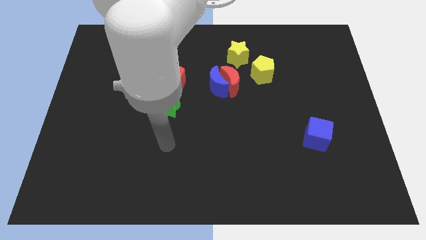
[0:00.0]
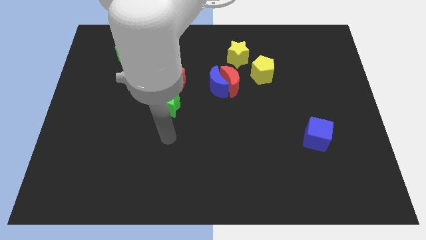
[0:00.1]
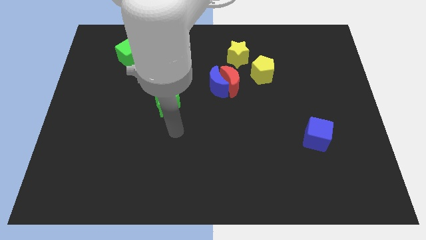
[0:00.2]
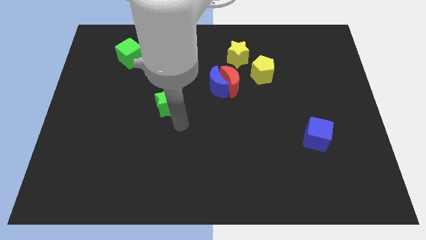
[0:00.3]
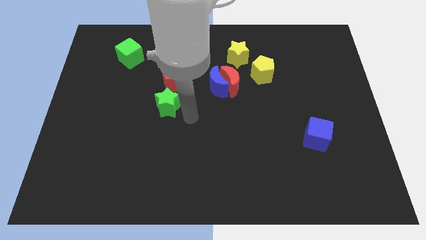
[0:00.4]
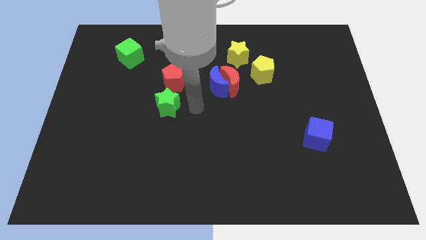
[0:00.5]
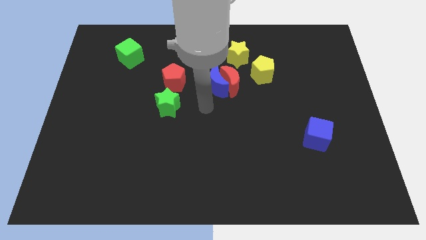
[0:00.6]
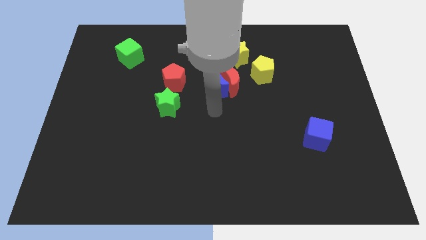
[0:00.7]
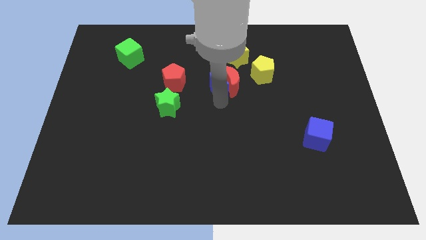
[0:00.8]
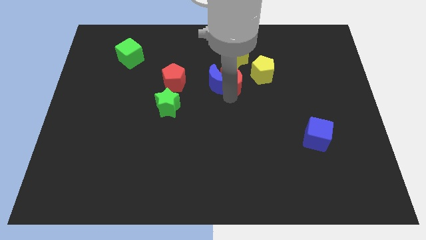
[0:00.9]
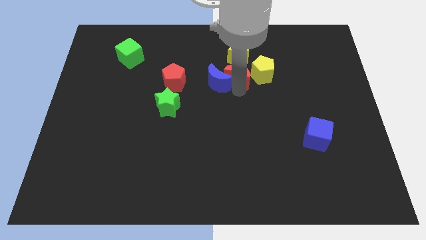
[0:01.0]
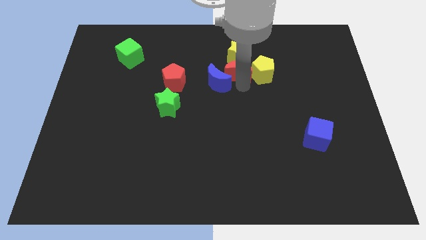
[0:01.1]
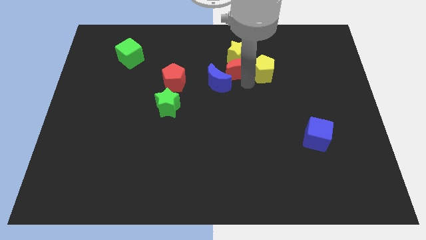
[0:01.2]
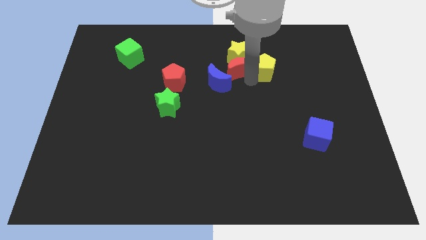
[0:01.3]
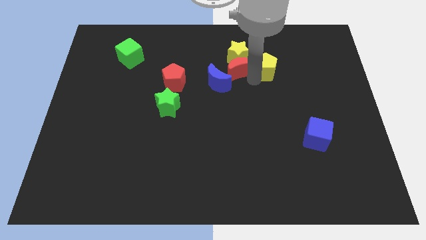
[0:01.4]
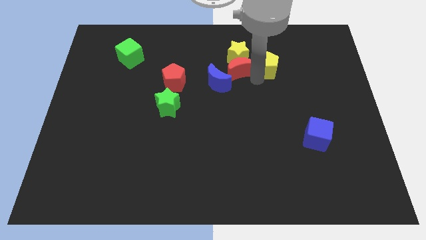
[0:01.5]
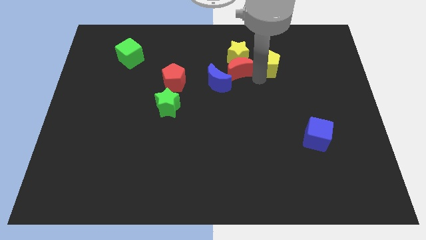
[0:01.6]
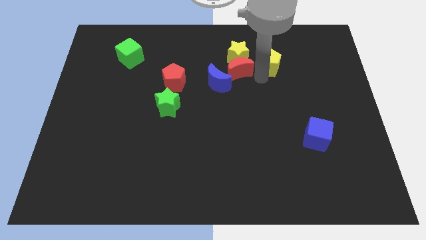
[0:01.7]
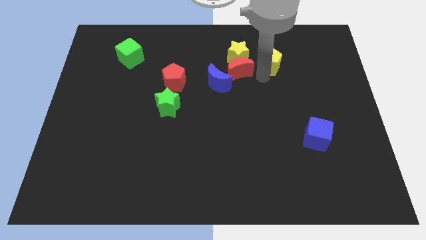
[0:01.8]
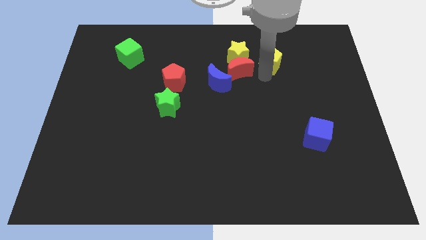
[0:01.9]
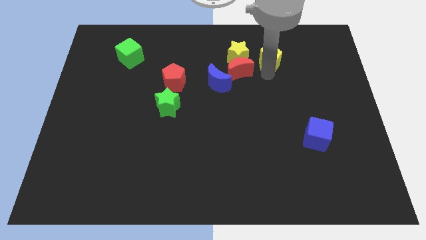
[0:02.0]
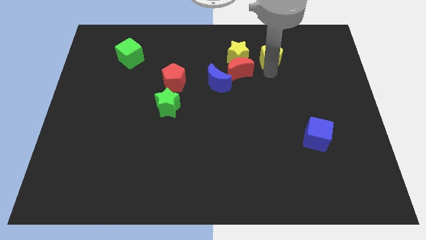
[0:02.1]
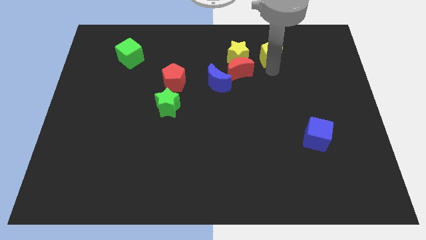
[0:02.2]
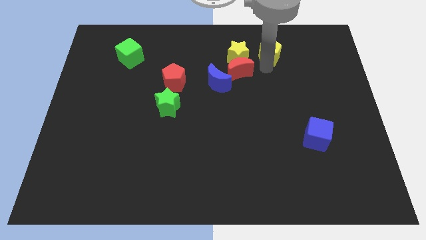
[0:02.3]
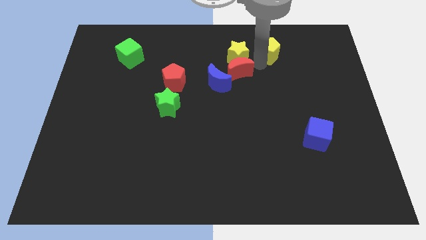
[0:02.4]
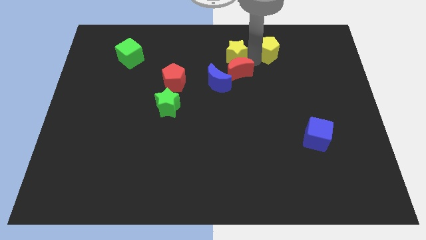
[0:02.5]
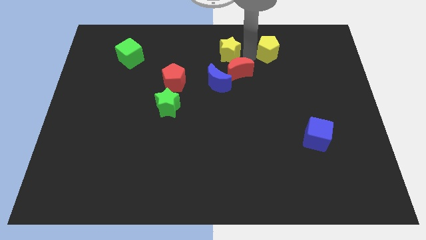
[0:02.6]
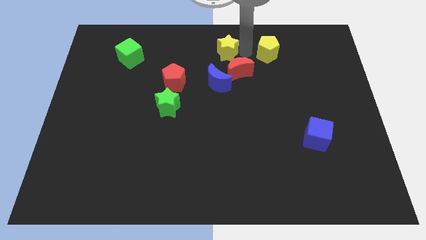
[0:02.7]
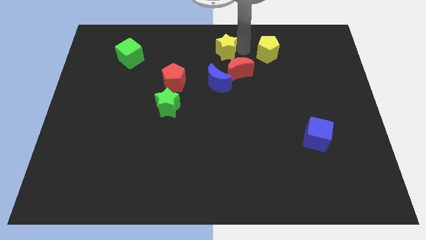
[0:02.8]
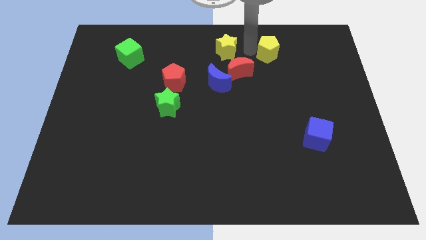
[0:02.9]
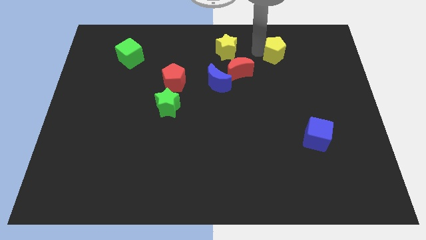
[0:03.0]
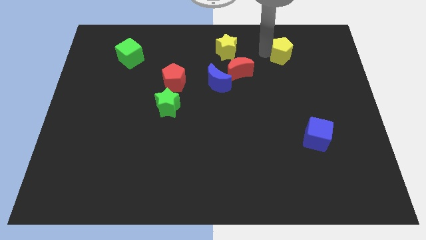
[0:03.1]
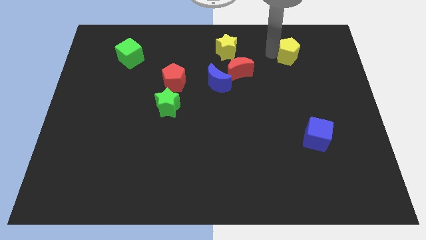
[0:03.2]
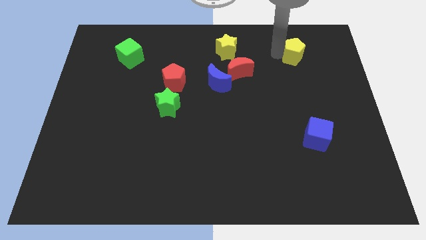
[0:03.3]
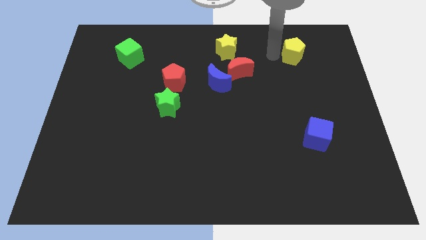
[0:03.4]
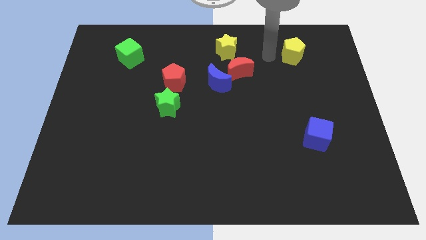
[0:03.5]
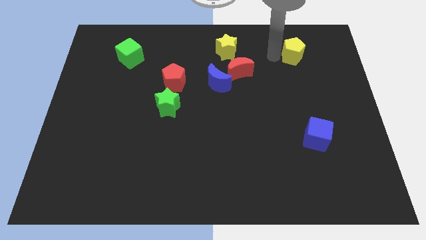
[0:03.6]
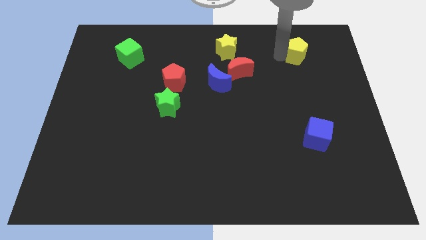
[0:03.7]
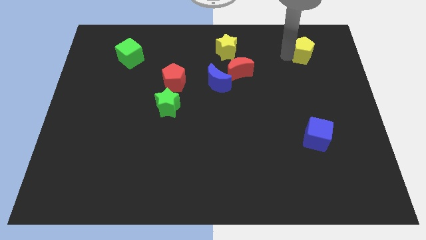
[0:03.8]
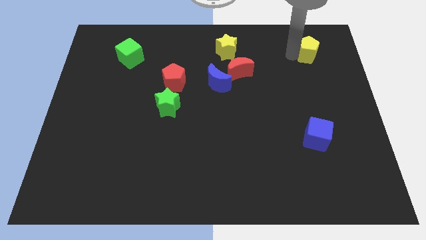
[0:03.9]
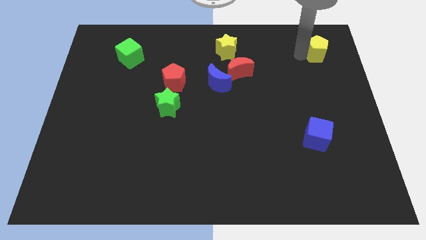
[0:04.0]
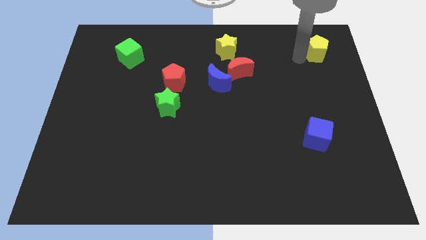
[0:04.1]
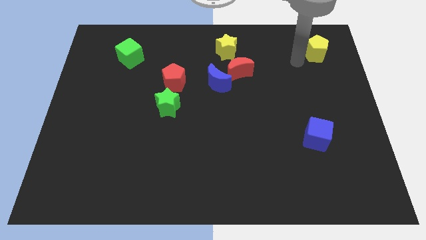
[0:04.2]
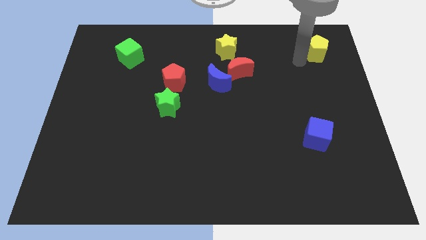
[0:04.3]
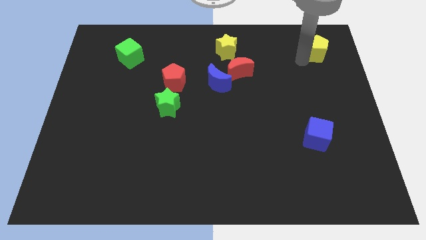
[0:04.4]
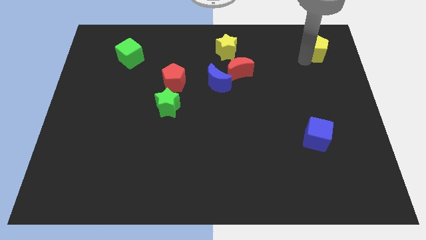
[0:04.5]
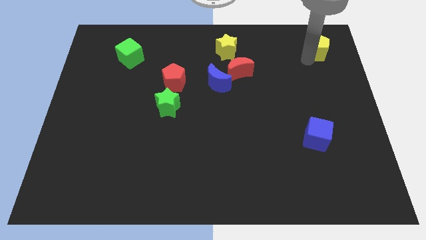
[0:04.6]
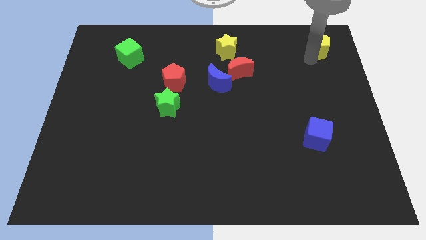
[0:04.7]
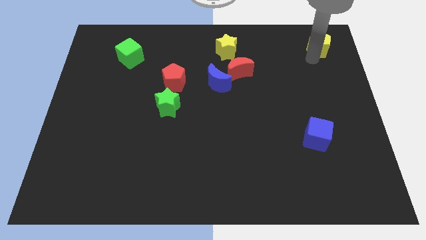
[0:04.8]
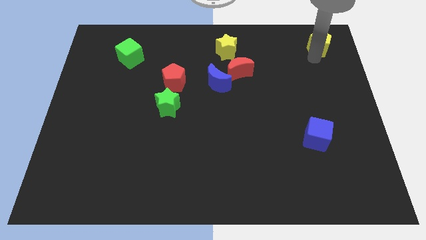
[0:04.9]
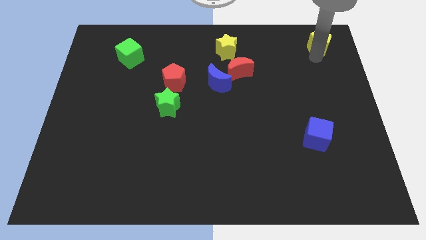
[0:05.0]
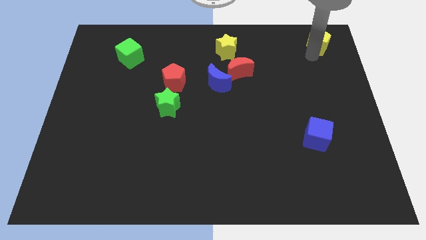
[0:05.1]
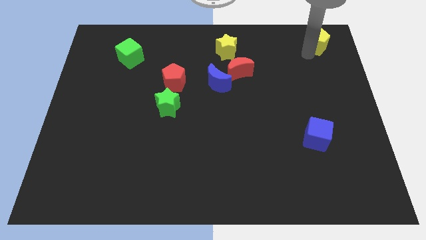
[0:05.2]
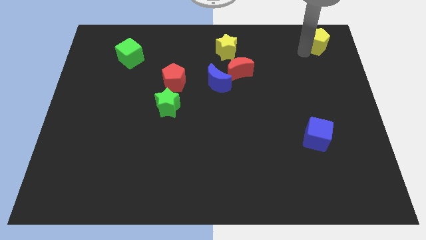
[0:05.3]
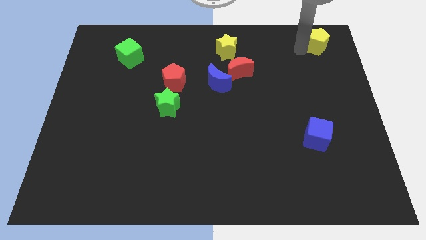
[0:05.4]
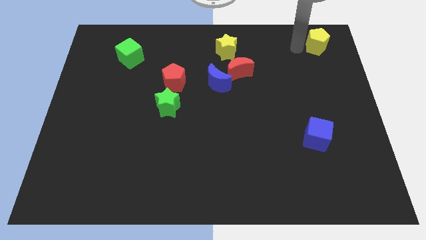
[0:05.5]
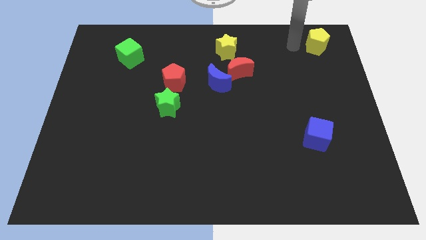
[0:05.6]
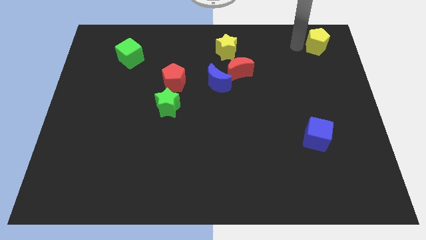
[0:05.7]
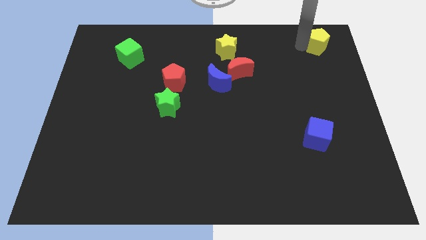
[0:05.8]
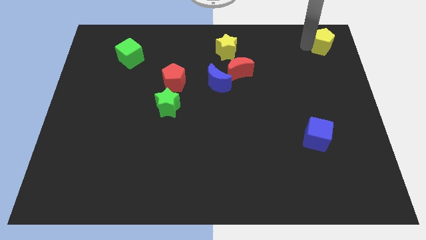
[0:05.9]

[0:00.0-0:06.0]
put the yellow pentagon to the top right of the board

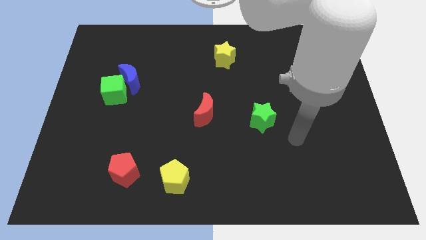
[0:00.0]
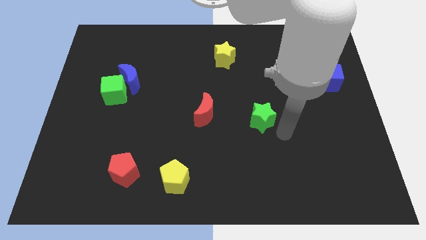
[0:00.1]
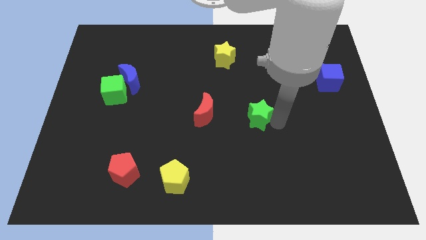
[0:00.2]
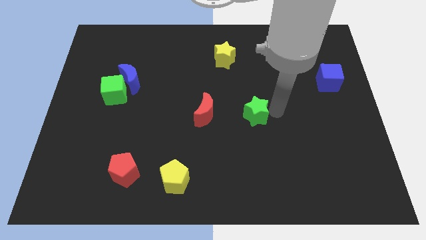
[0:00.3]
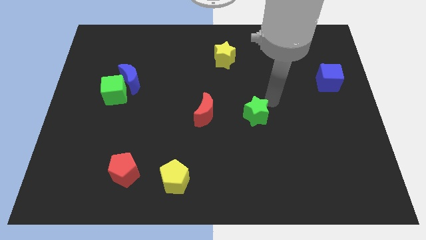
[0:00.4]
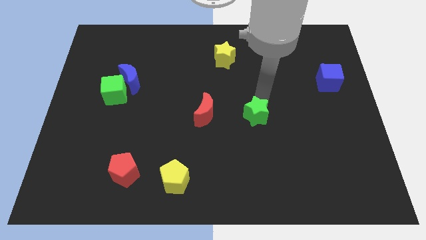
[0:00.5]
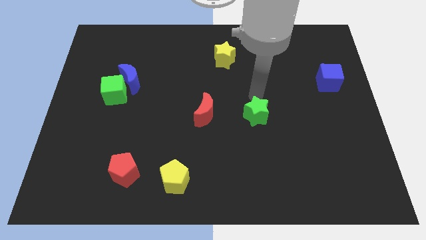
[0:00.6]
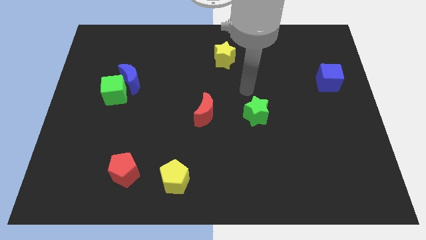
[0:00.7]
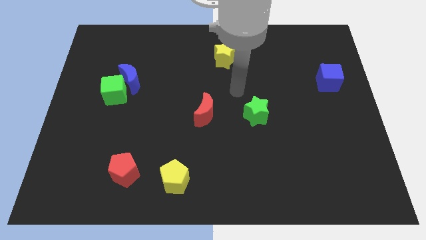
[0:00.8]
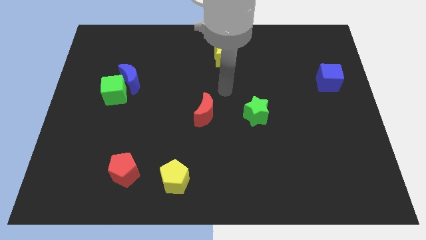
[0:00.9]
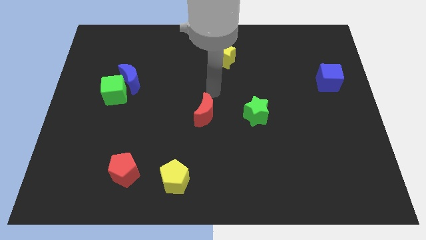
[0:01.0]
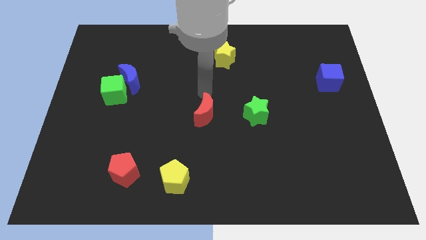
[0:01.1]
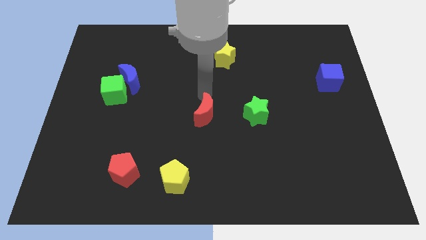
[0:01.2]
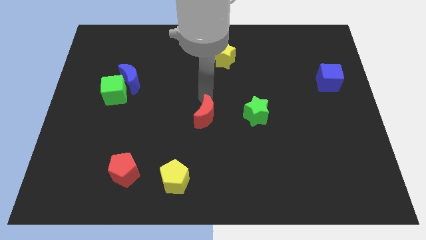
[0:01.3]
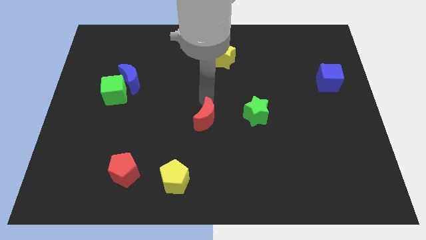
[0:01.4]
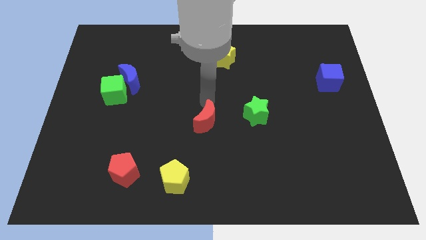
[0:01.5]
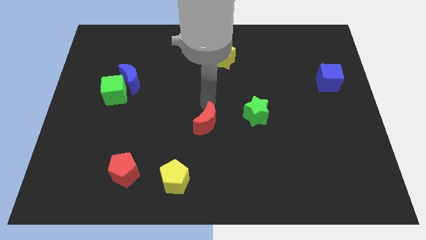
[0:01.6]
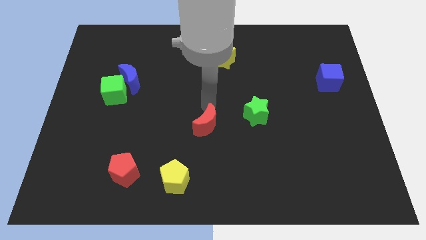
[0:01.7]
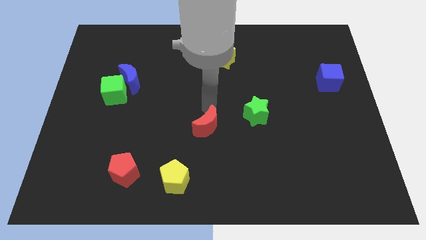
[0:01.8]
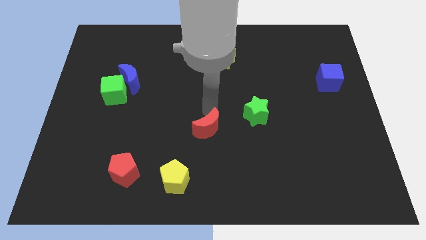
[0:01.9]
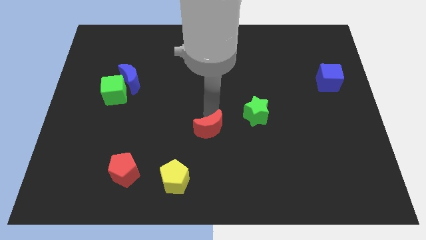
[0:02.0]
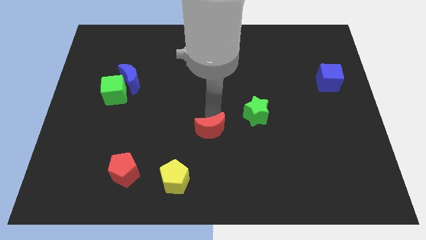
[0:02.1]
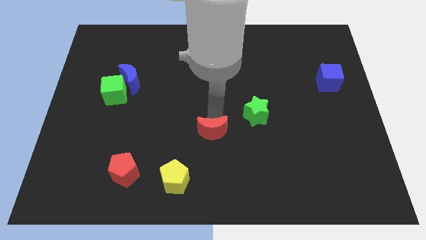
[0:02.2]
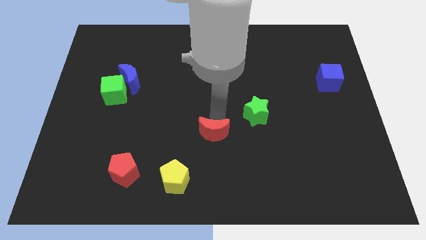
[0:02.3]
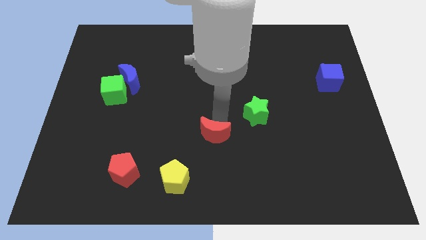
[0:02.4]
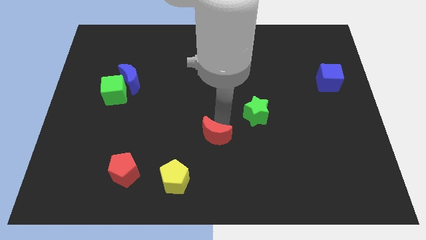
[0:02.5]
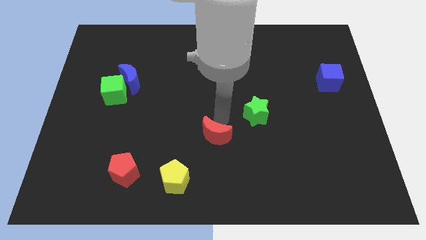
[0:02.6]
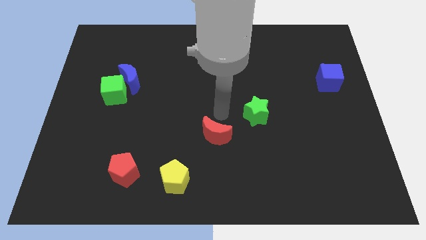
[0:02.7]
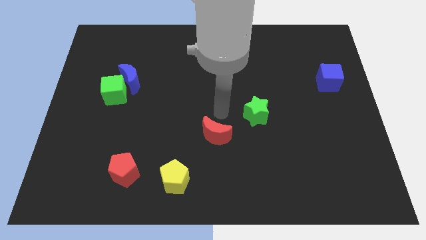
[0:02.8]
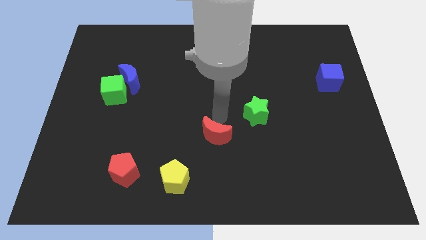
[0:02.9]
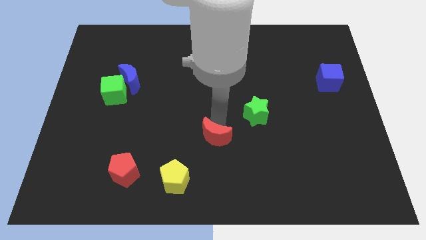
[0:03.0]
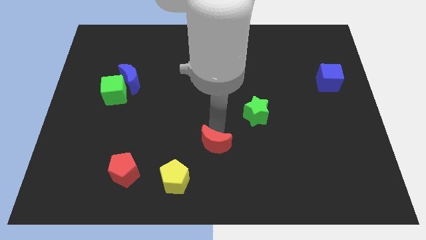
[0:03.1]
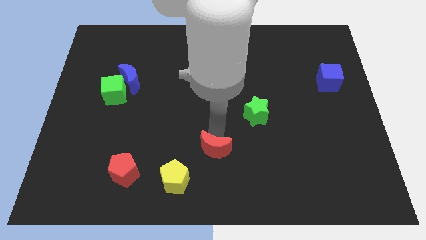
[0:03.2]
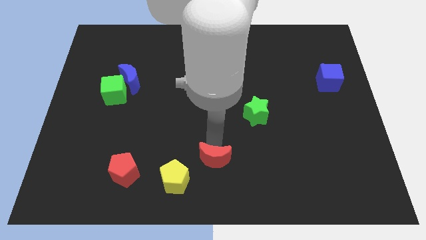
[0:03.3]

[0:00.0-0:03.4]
put the red moon to the bottom
